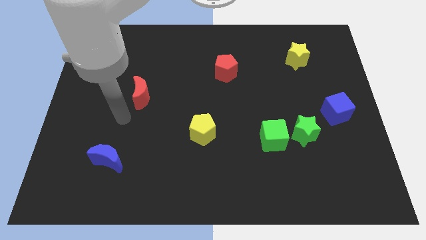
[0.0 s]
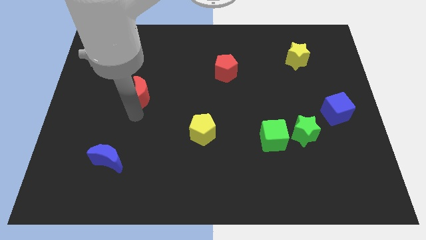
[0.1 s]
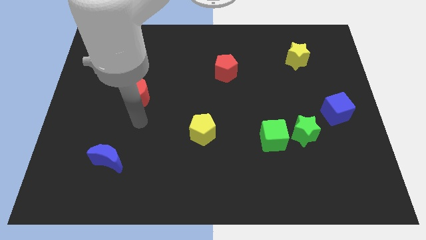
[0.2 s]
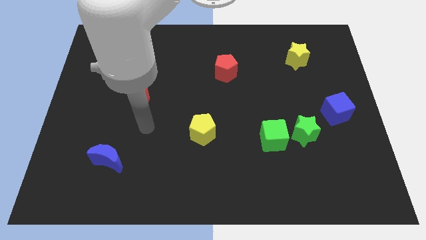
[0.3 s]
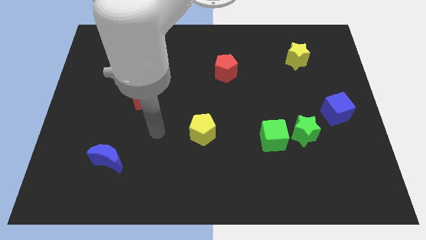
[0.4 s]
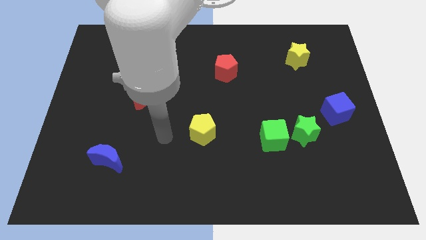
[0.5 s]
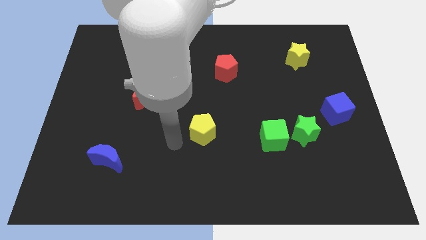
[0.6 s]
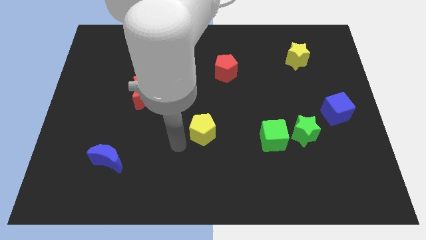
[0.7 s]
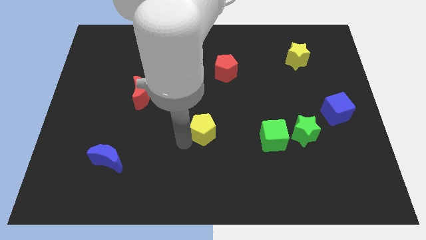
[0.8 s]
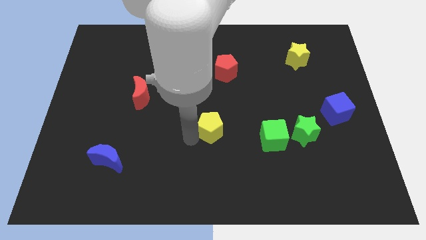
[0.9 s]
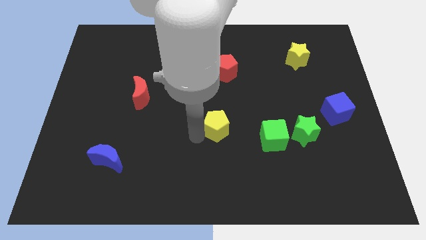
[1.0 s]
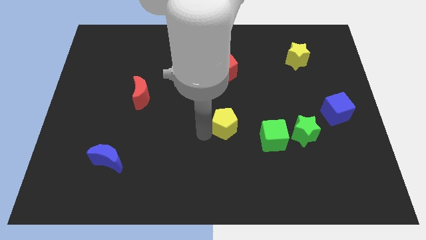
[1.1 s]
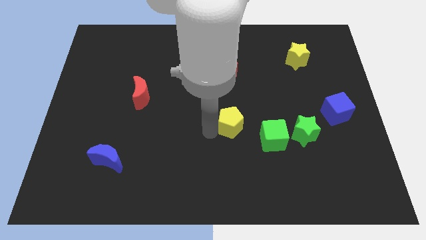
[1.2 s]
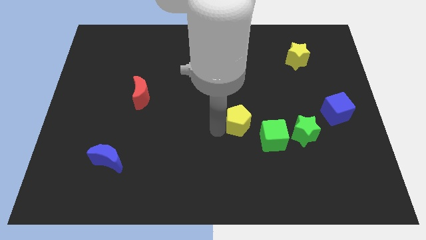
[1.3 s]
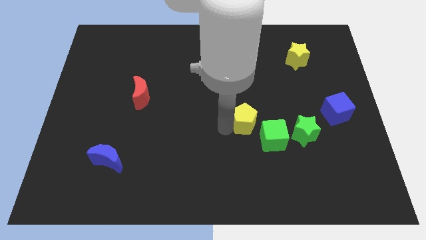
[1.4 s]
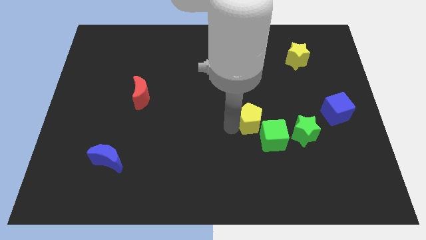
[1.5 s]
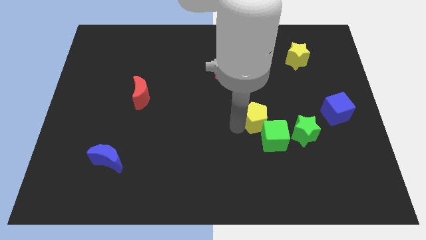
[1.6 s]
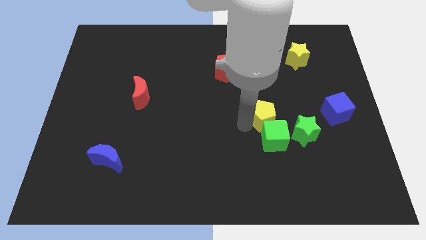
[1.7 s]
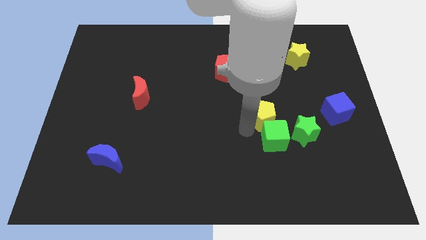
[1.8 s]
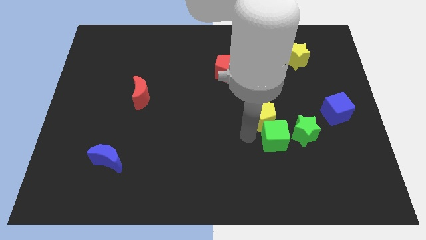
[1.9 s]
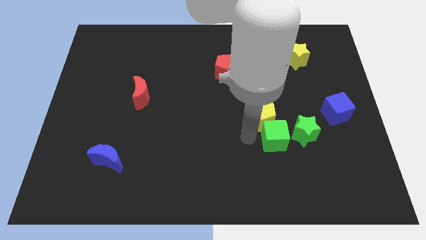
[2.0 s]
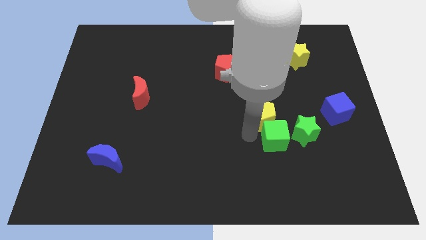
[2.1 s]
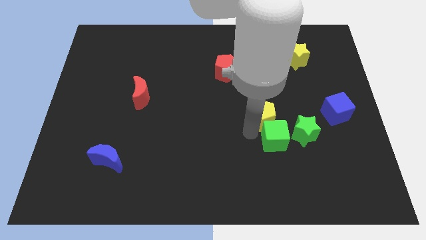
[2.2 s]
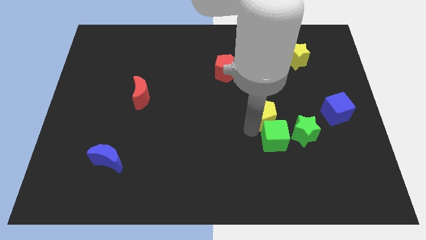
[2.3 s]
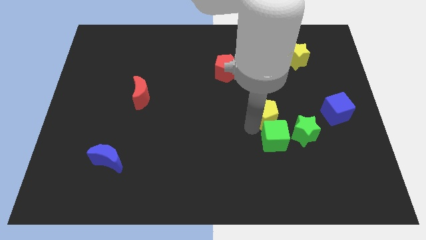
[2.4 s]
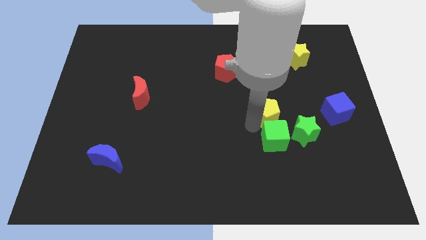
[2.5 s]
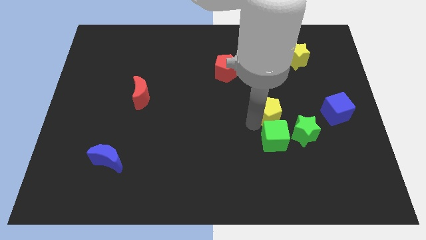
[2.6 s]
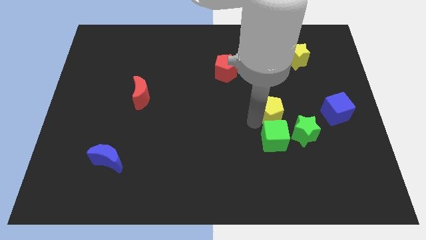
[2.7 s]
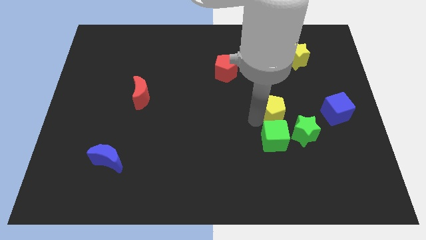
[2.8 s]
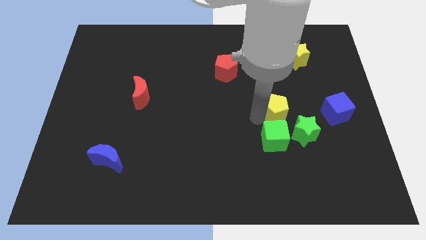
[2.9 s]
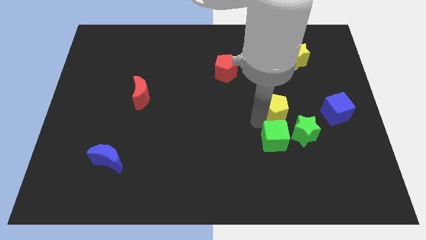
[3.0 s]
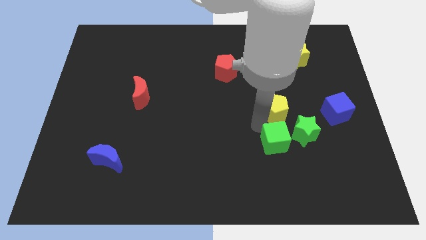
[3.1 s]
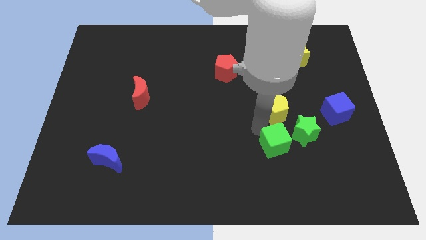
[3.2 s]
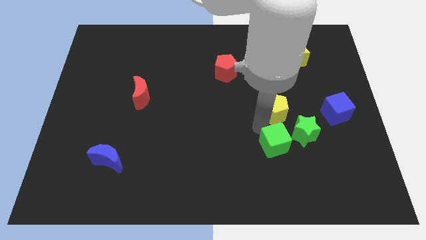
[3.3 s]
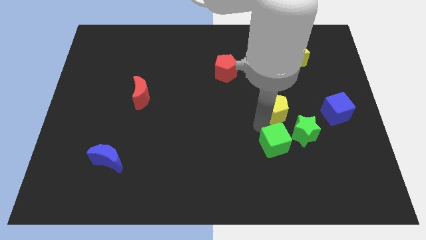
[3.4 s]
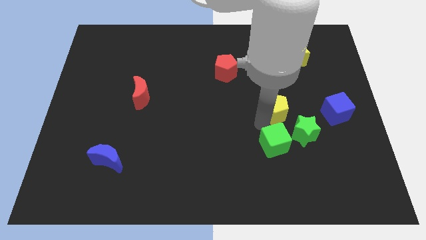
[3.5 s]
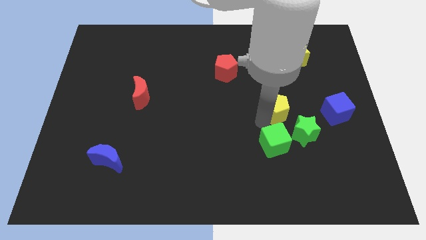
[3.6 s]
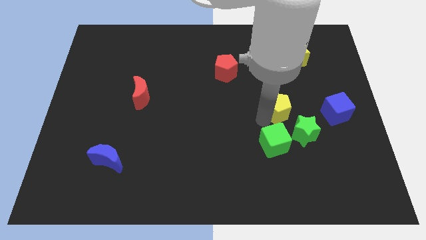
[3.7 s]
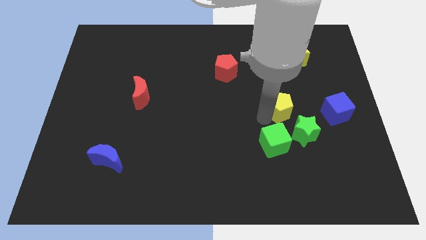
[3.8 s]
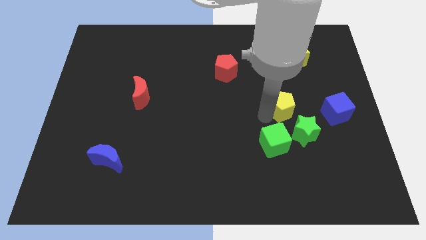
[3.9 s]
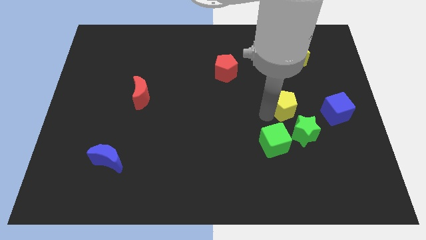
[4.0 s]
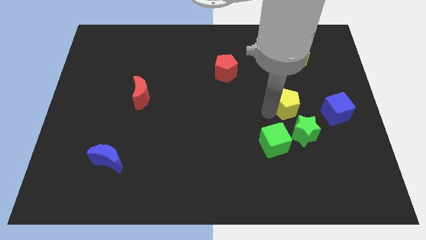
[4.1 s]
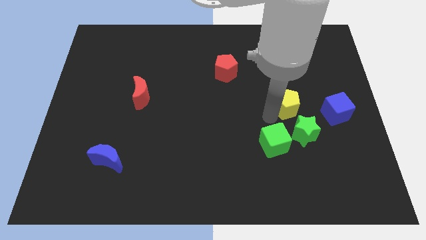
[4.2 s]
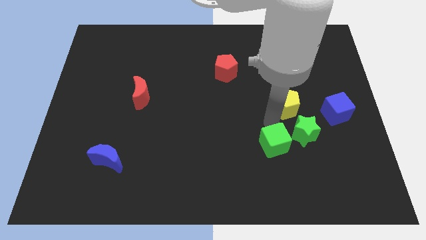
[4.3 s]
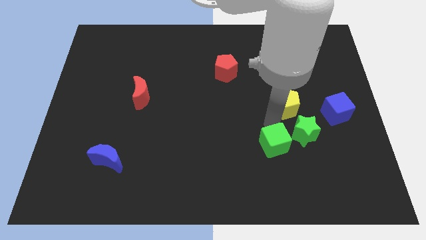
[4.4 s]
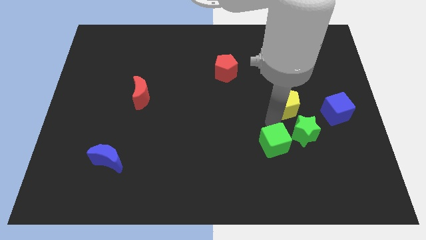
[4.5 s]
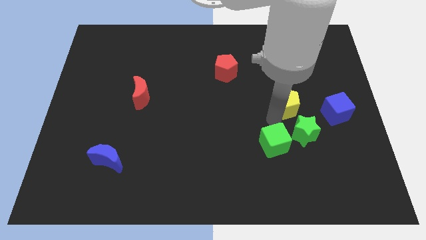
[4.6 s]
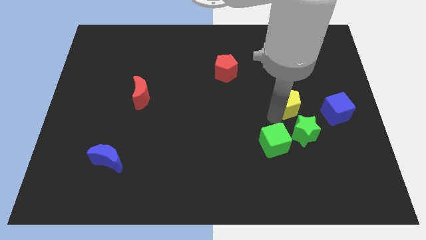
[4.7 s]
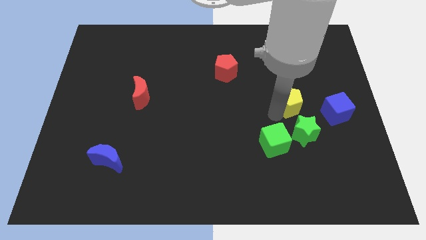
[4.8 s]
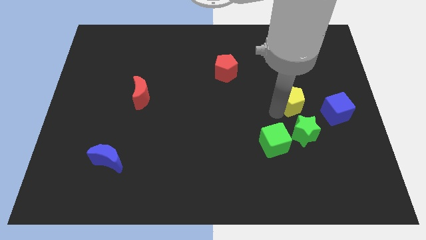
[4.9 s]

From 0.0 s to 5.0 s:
put the yellow pentagon to the bottom of the yellow star

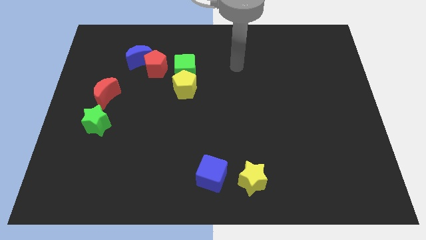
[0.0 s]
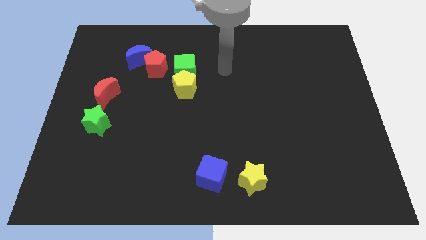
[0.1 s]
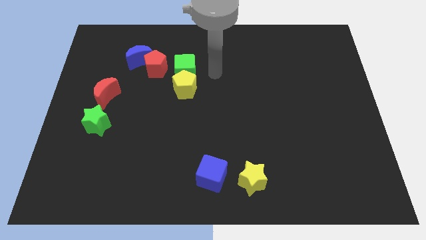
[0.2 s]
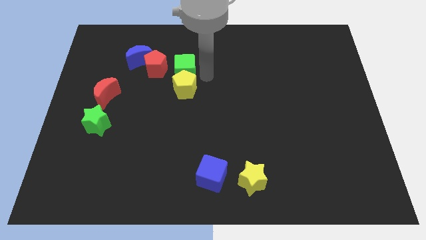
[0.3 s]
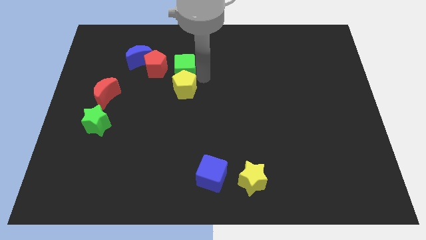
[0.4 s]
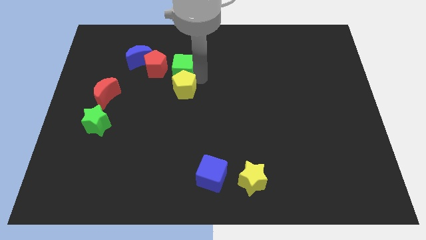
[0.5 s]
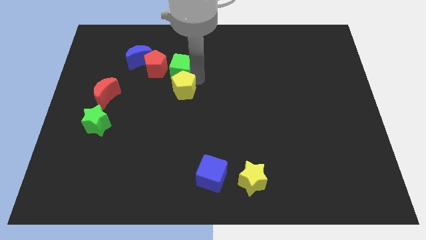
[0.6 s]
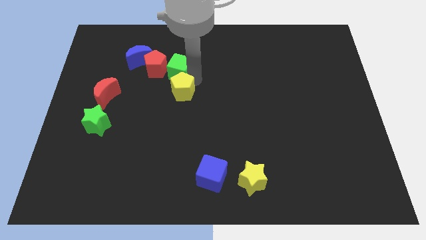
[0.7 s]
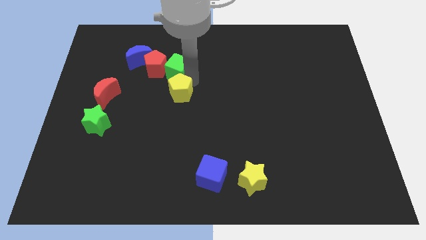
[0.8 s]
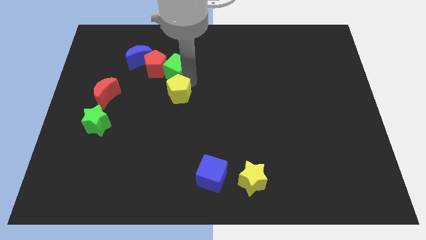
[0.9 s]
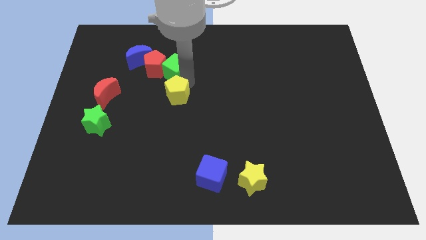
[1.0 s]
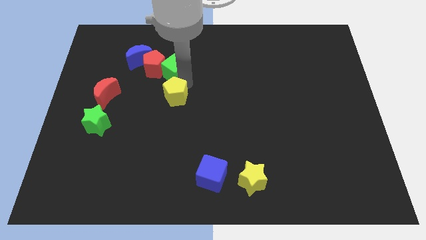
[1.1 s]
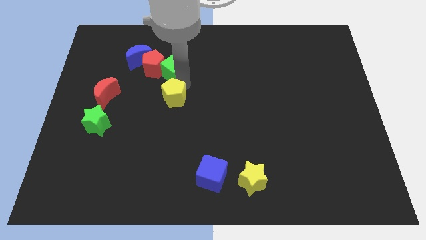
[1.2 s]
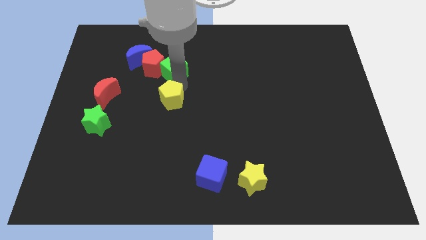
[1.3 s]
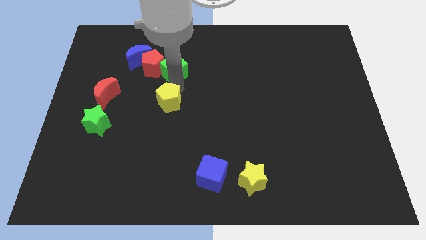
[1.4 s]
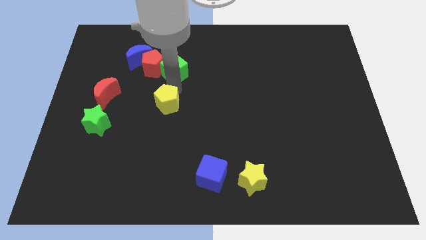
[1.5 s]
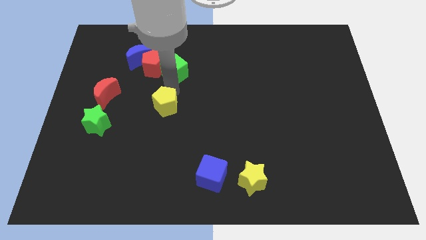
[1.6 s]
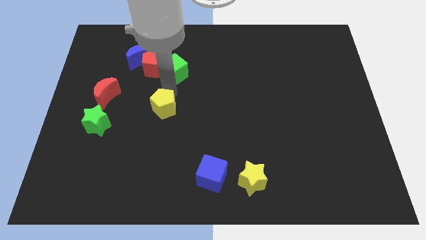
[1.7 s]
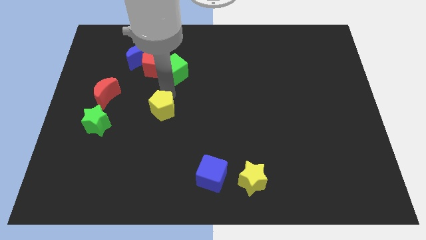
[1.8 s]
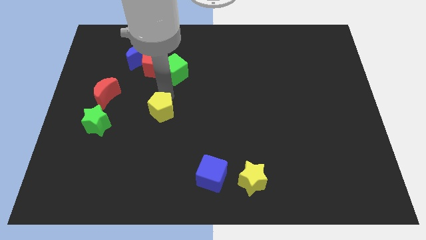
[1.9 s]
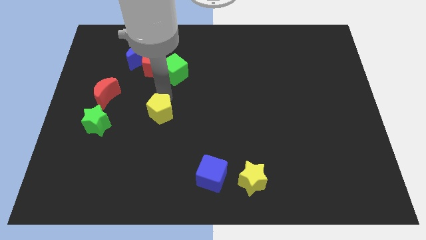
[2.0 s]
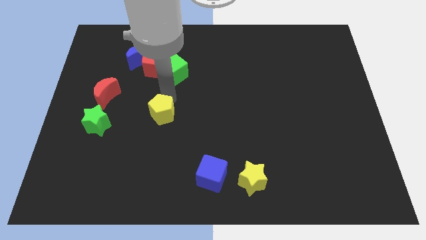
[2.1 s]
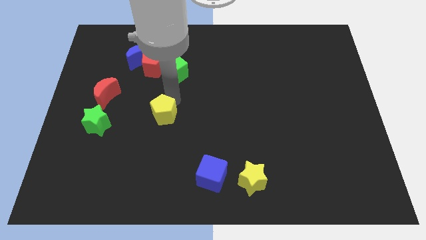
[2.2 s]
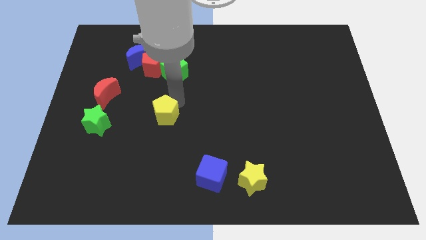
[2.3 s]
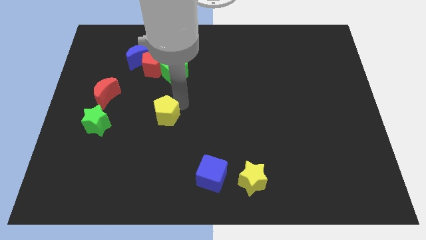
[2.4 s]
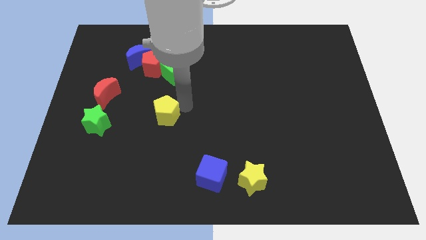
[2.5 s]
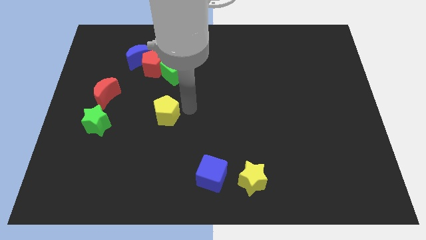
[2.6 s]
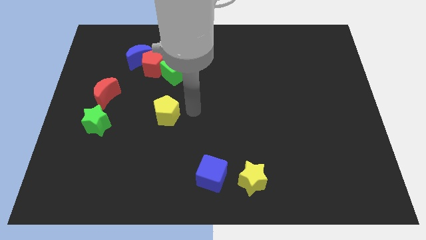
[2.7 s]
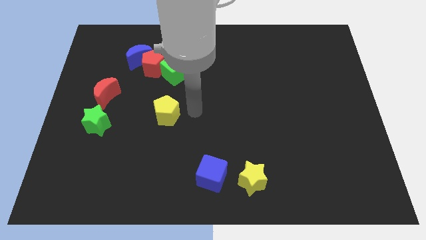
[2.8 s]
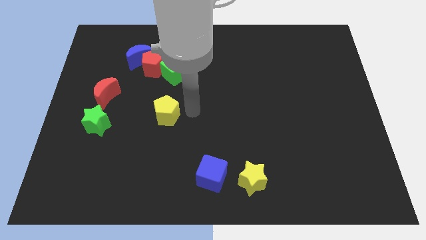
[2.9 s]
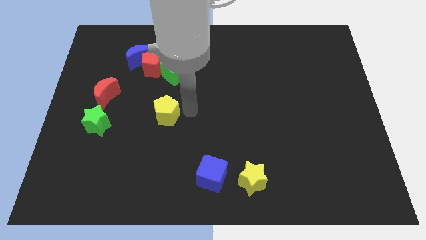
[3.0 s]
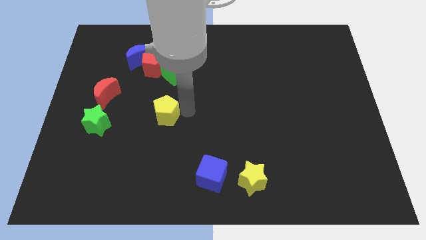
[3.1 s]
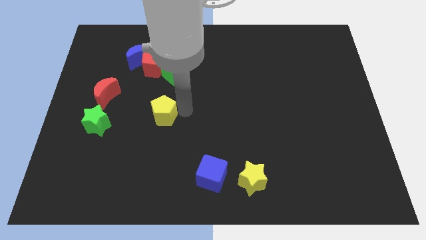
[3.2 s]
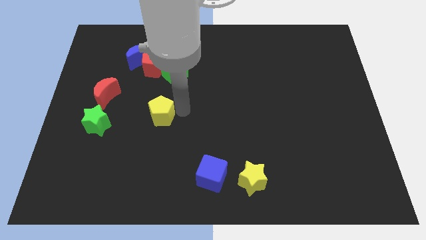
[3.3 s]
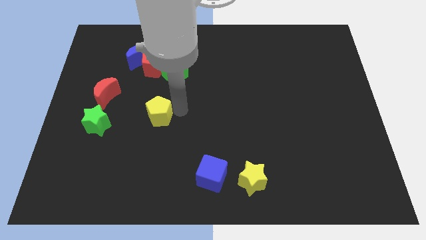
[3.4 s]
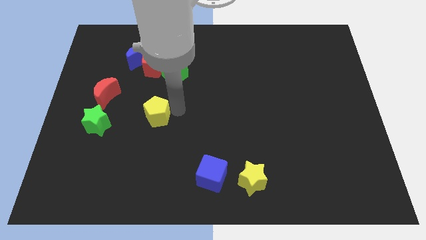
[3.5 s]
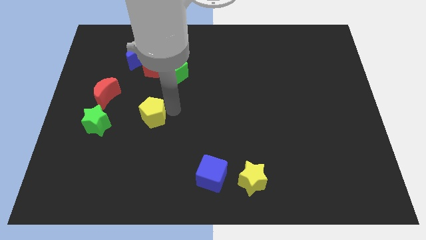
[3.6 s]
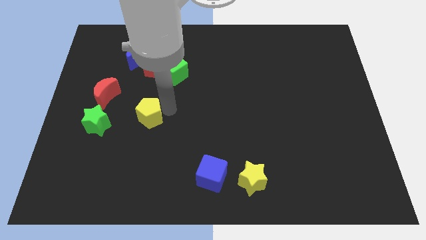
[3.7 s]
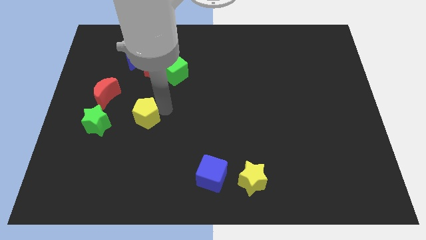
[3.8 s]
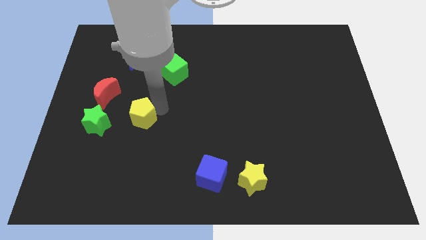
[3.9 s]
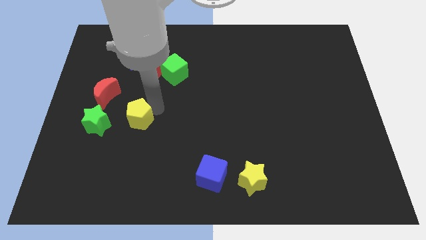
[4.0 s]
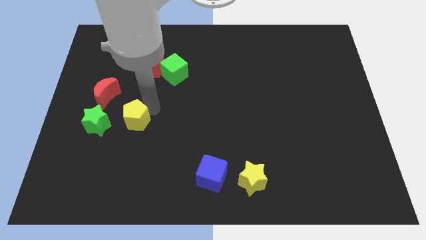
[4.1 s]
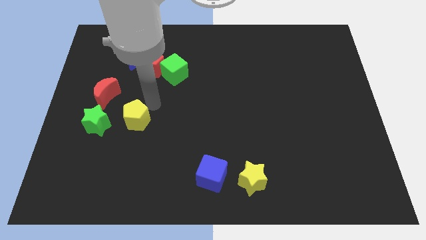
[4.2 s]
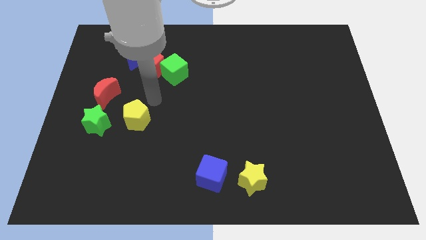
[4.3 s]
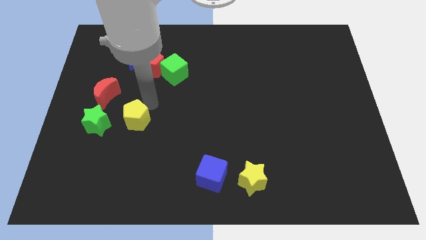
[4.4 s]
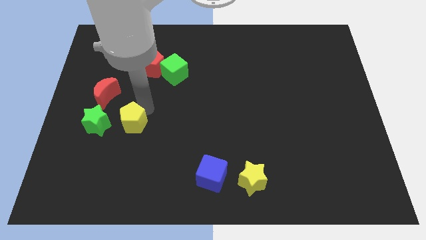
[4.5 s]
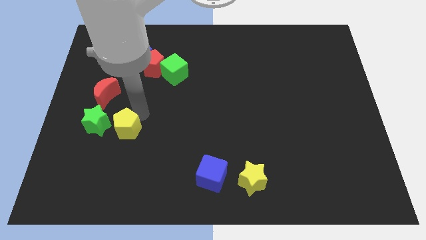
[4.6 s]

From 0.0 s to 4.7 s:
move the yellow pentagon to the bottom right side of the green star
